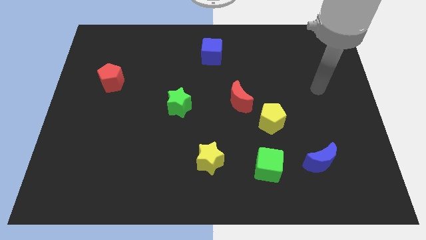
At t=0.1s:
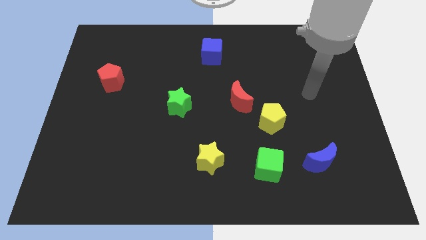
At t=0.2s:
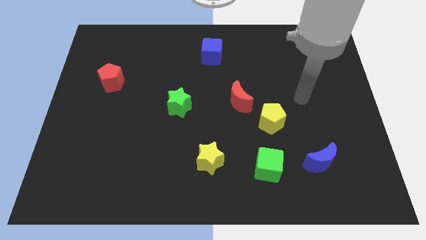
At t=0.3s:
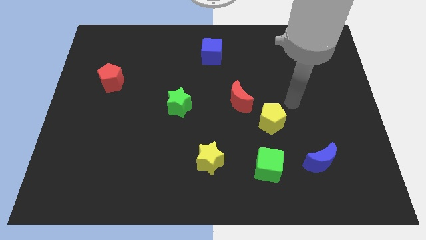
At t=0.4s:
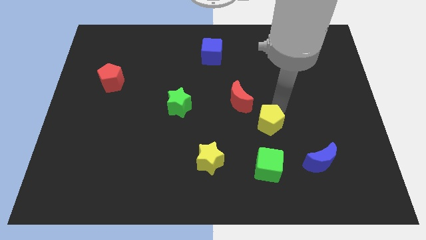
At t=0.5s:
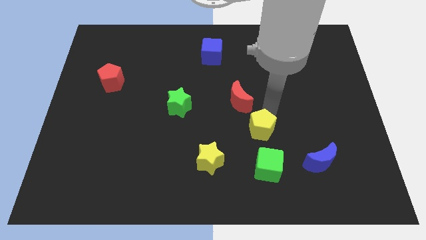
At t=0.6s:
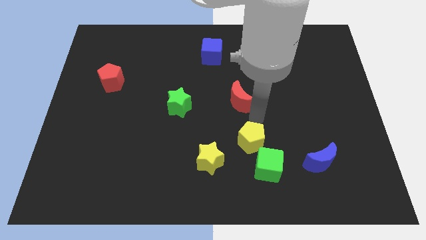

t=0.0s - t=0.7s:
separate the red moon from the yellow pentagon

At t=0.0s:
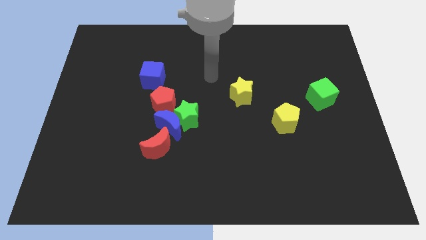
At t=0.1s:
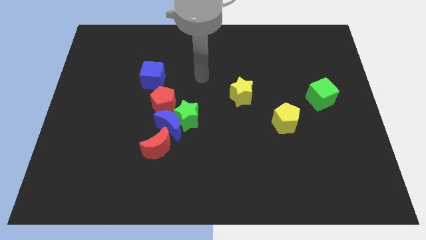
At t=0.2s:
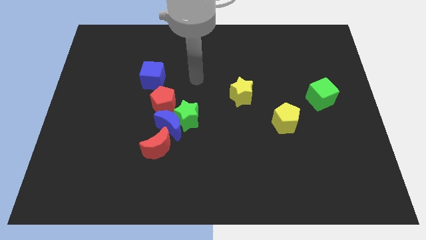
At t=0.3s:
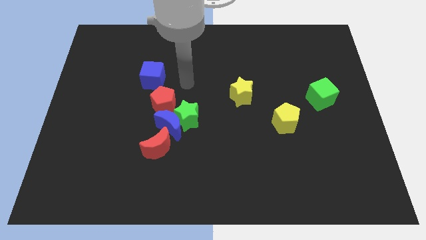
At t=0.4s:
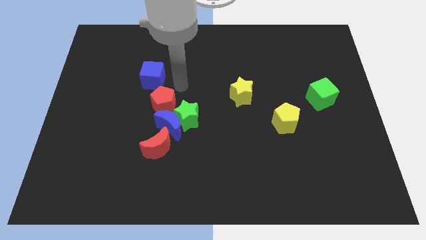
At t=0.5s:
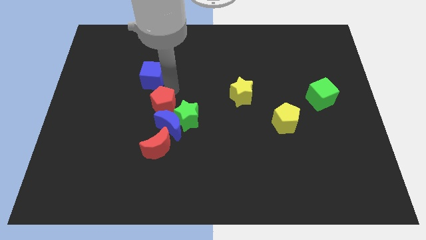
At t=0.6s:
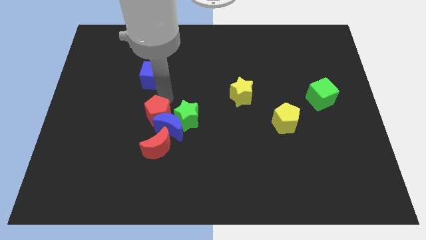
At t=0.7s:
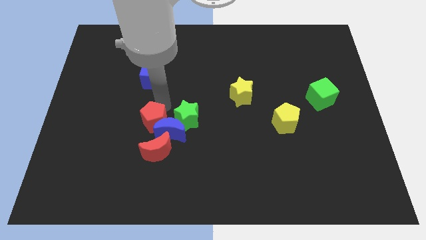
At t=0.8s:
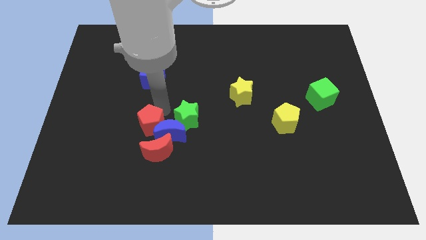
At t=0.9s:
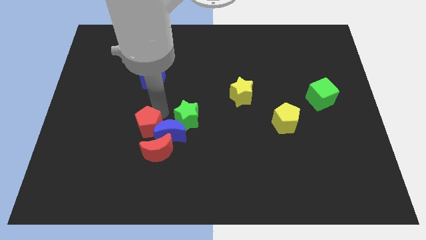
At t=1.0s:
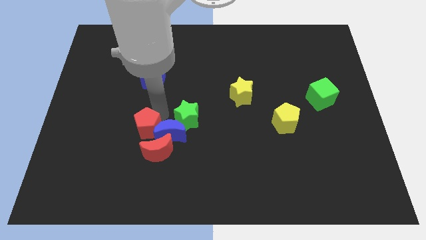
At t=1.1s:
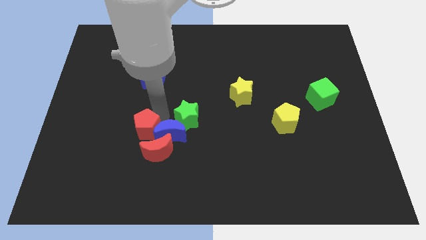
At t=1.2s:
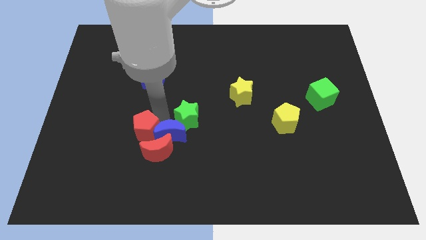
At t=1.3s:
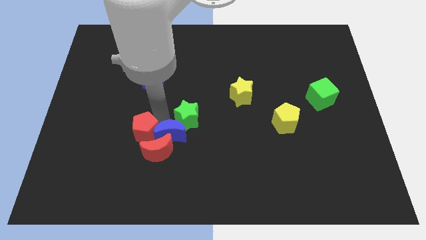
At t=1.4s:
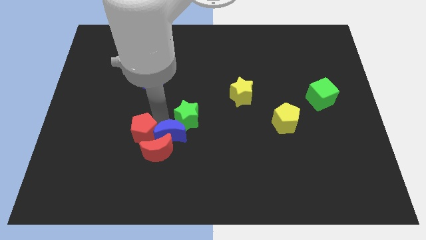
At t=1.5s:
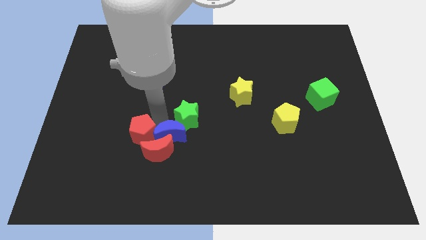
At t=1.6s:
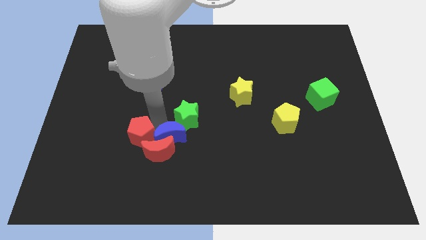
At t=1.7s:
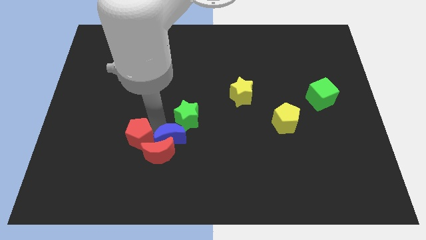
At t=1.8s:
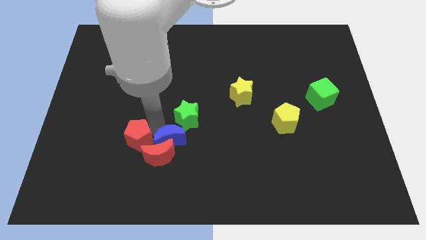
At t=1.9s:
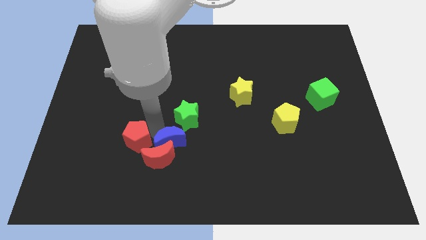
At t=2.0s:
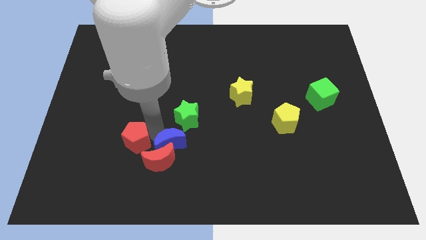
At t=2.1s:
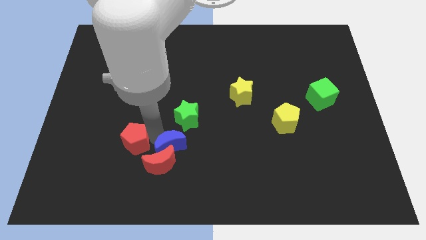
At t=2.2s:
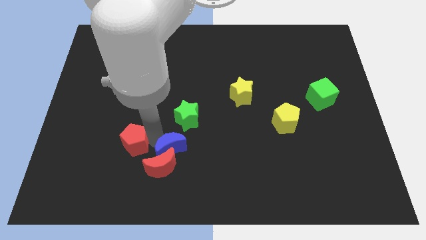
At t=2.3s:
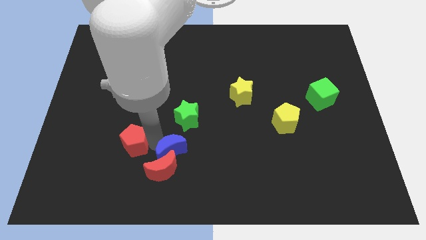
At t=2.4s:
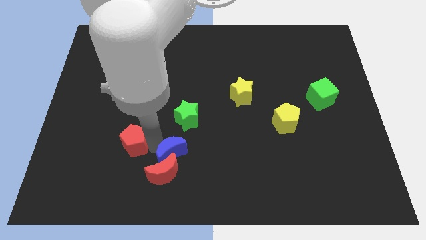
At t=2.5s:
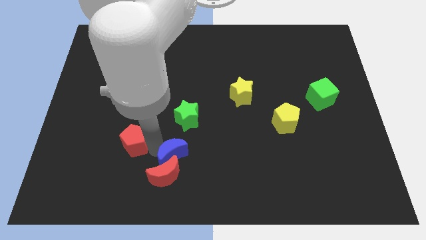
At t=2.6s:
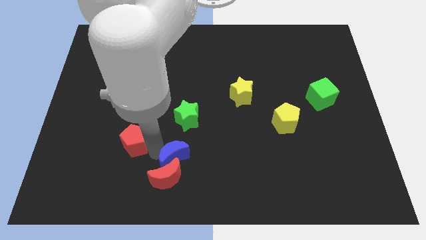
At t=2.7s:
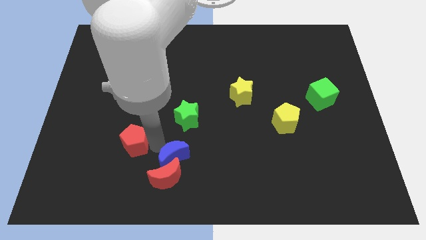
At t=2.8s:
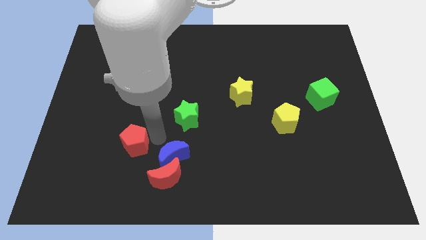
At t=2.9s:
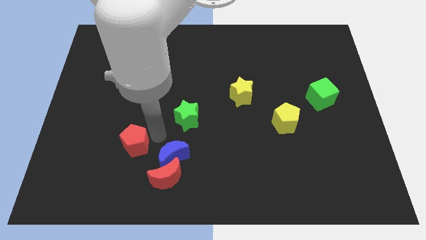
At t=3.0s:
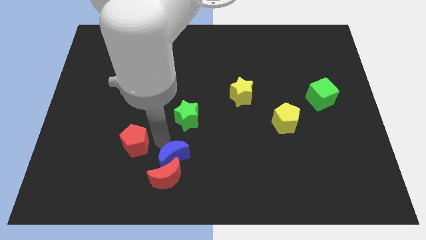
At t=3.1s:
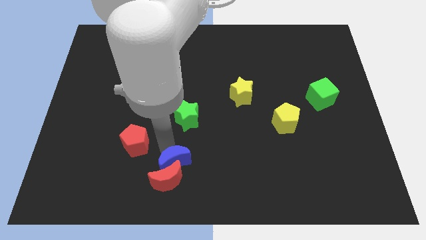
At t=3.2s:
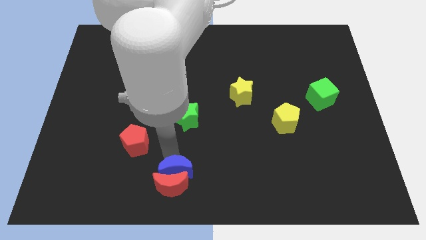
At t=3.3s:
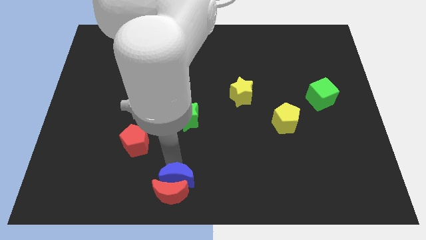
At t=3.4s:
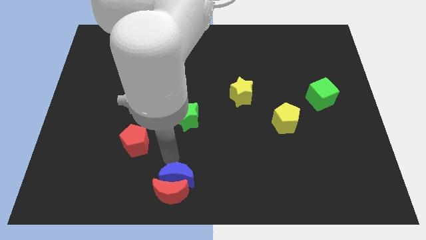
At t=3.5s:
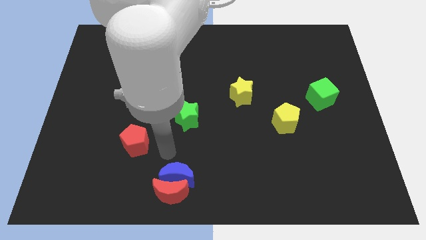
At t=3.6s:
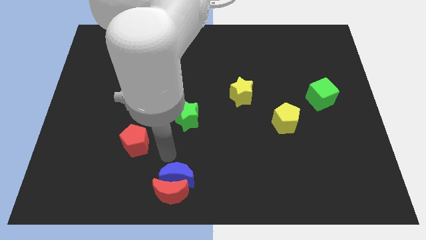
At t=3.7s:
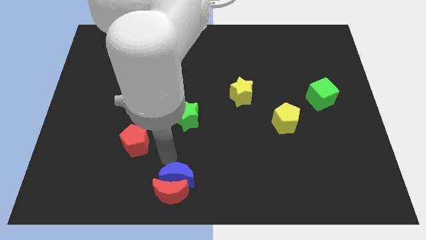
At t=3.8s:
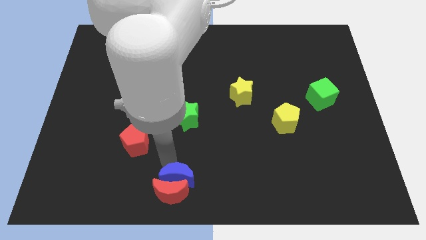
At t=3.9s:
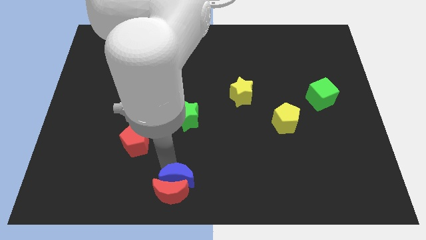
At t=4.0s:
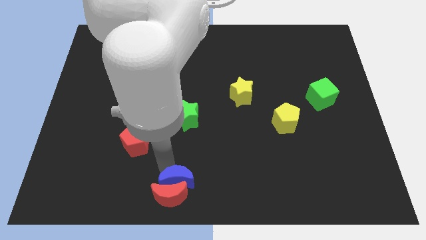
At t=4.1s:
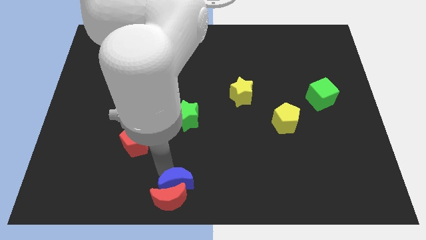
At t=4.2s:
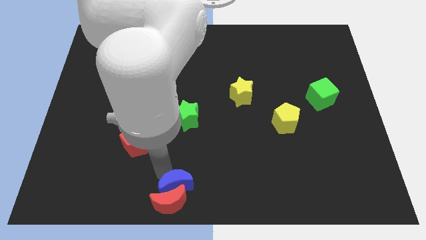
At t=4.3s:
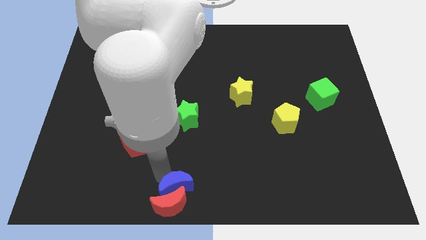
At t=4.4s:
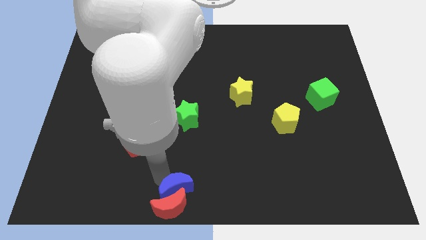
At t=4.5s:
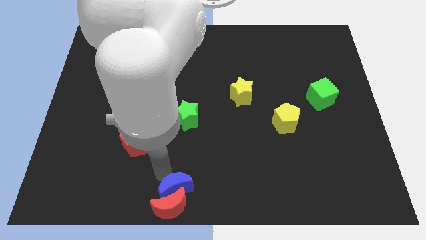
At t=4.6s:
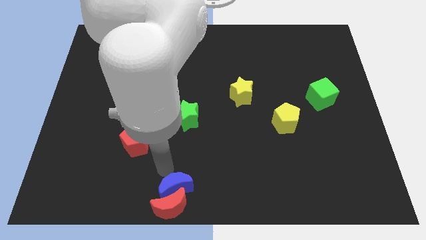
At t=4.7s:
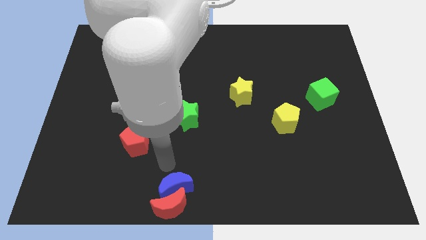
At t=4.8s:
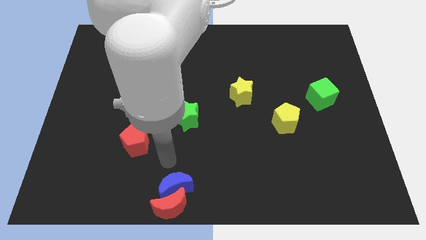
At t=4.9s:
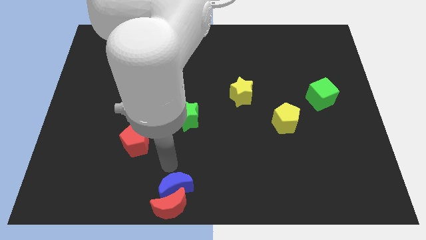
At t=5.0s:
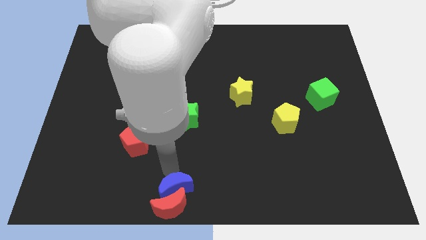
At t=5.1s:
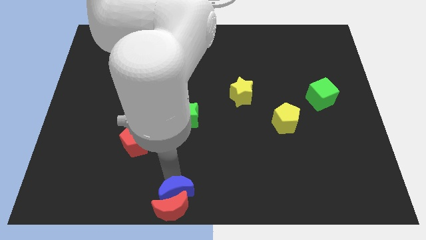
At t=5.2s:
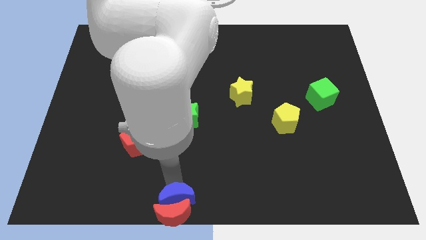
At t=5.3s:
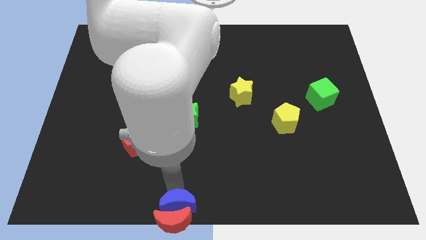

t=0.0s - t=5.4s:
move the blue moon away from the green star, red moon, and red pentagon

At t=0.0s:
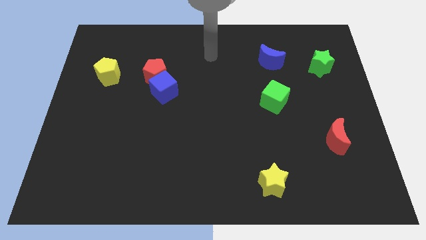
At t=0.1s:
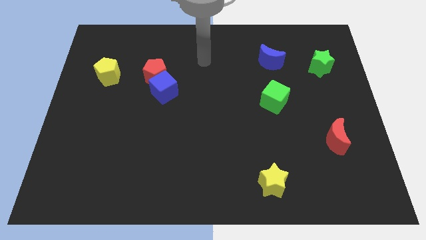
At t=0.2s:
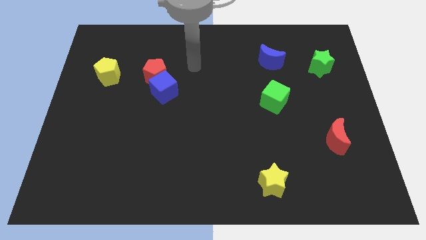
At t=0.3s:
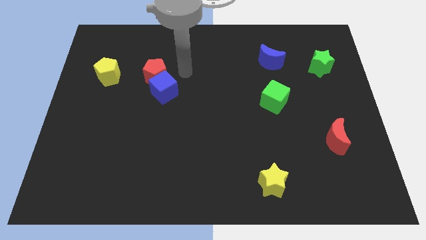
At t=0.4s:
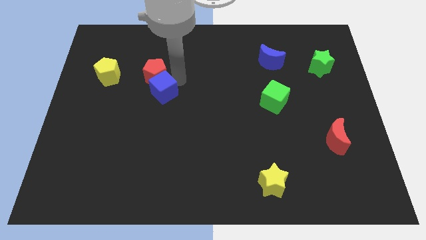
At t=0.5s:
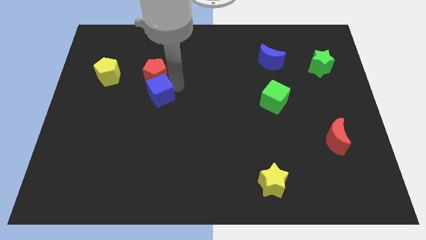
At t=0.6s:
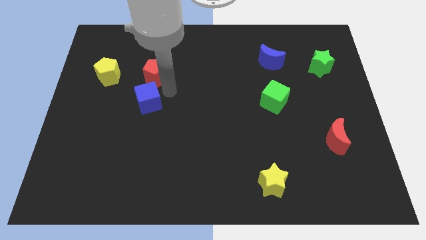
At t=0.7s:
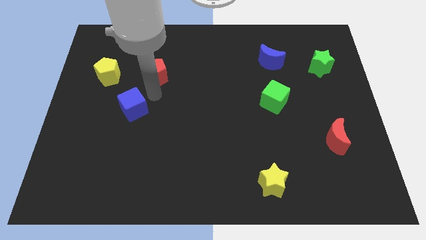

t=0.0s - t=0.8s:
pull the red pentagon apart from the blue cube

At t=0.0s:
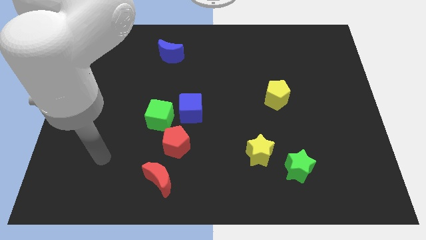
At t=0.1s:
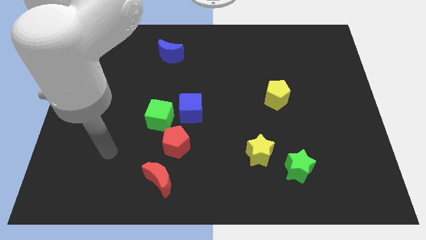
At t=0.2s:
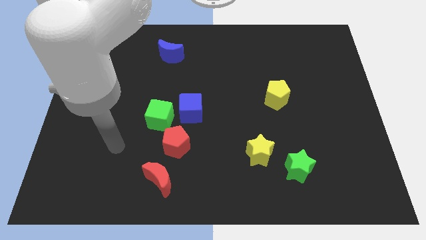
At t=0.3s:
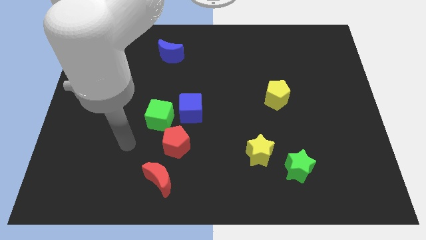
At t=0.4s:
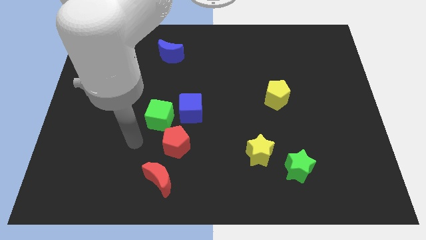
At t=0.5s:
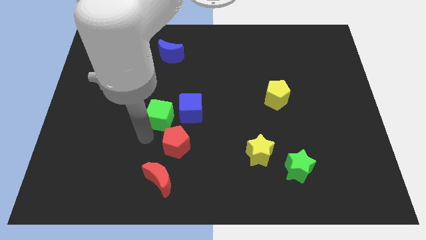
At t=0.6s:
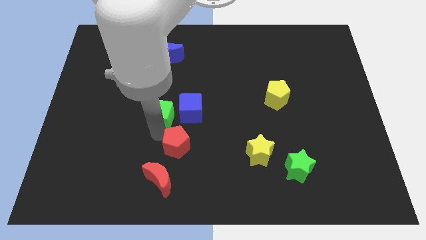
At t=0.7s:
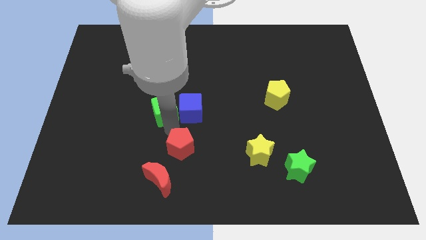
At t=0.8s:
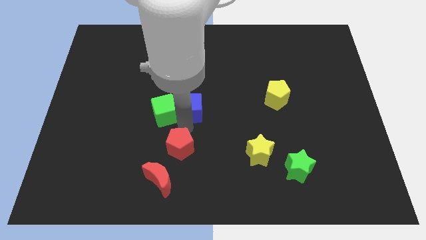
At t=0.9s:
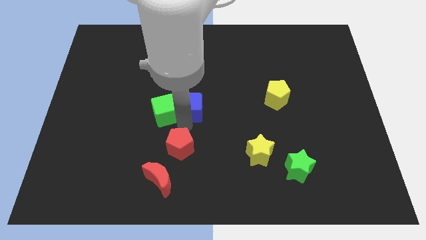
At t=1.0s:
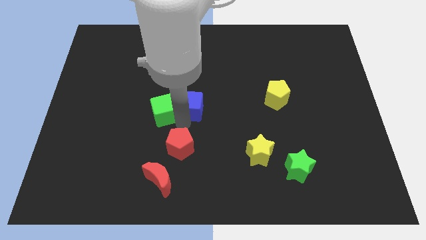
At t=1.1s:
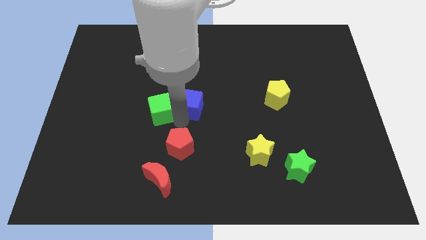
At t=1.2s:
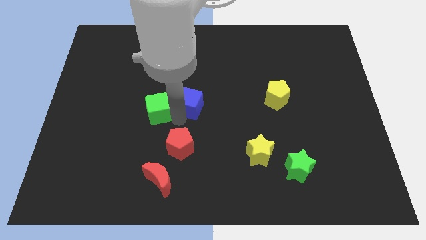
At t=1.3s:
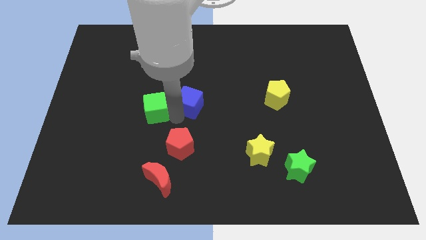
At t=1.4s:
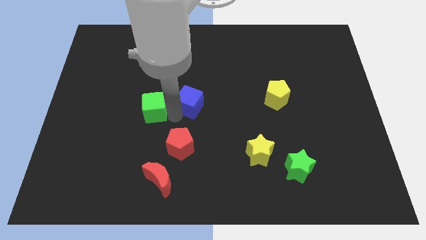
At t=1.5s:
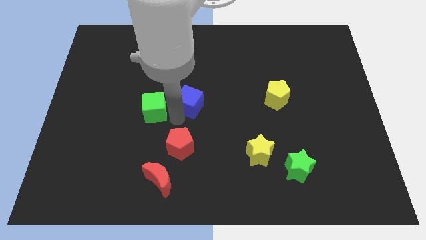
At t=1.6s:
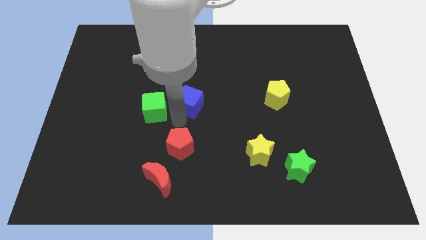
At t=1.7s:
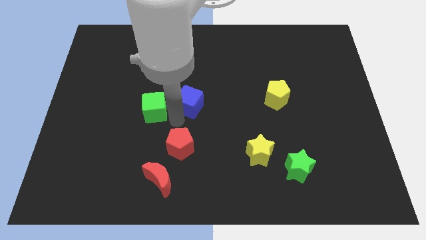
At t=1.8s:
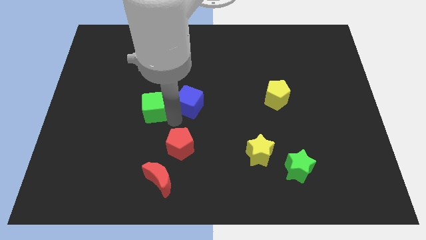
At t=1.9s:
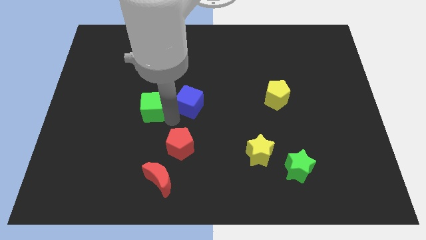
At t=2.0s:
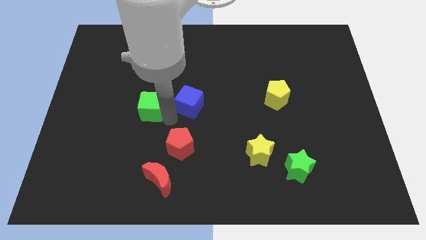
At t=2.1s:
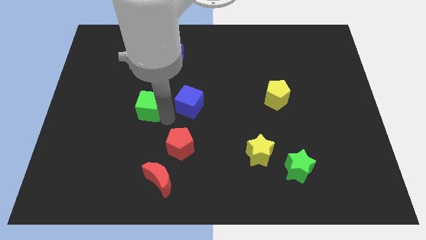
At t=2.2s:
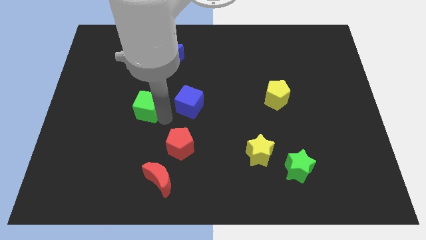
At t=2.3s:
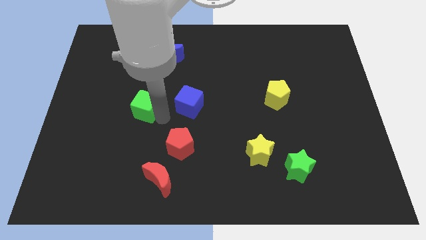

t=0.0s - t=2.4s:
separate the green cube from the blue cube and red pentagon
